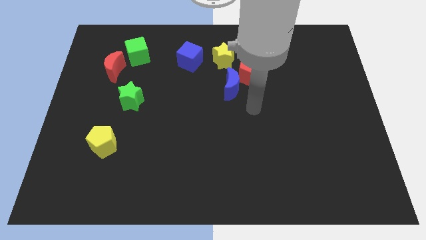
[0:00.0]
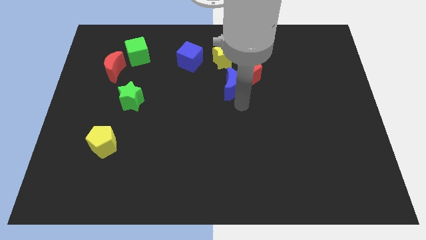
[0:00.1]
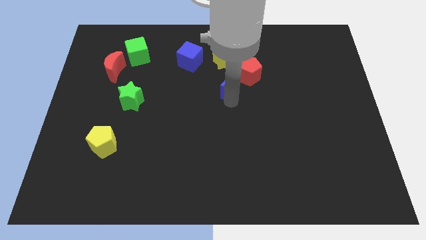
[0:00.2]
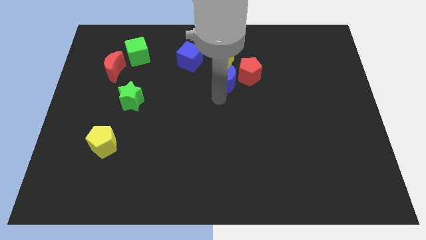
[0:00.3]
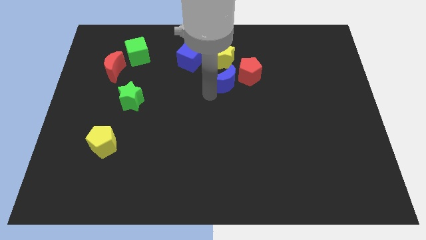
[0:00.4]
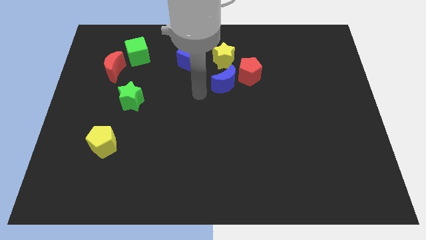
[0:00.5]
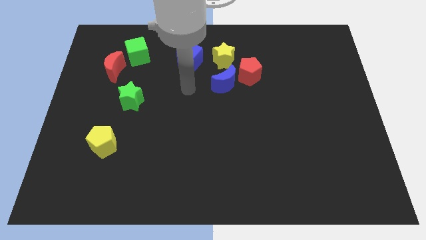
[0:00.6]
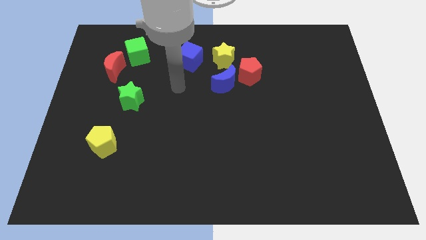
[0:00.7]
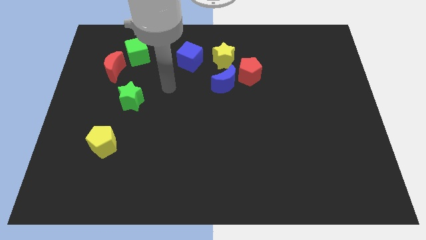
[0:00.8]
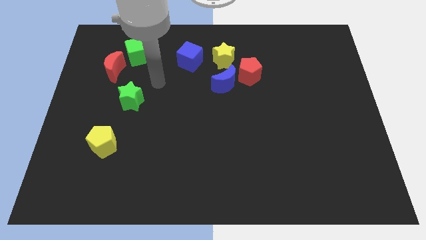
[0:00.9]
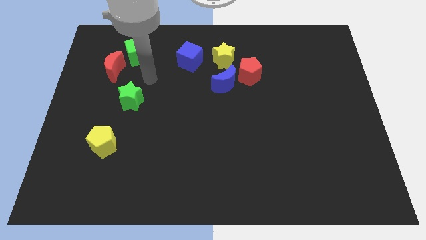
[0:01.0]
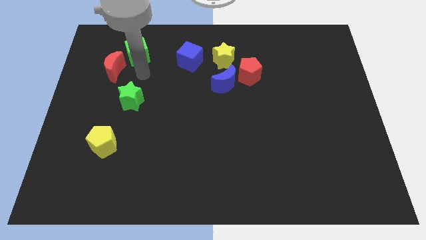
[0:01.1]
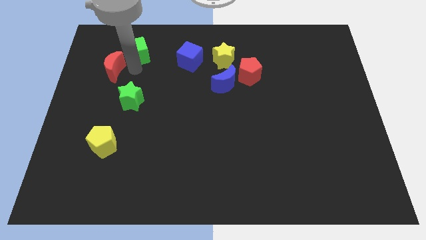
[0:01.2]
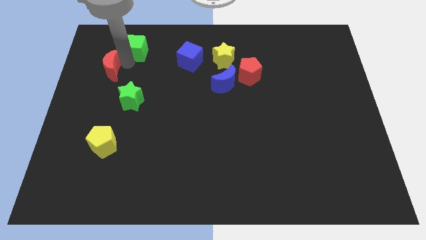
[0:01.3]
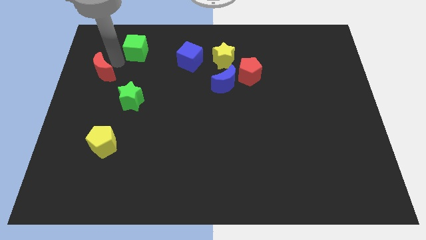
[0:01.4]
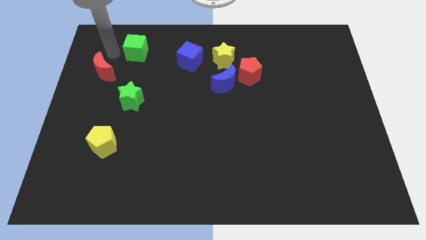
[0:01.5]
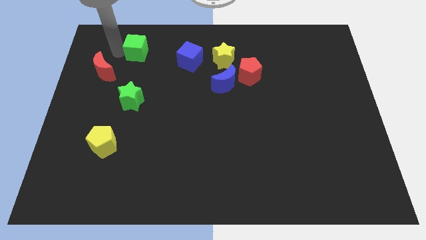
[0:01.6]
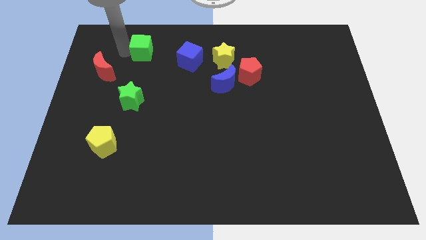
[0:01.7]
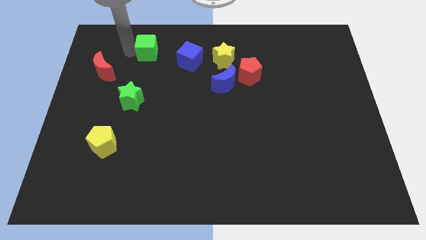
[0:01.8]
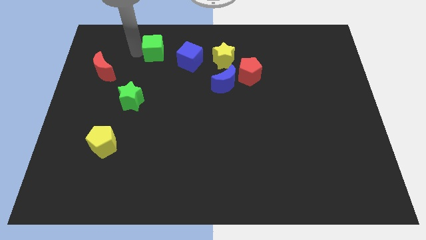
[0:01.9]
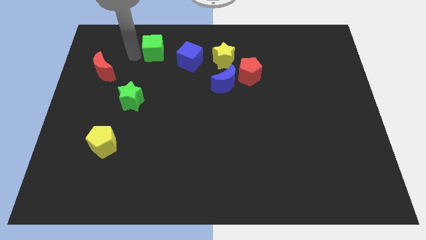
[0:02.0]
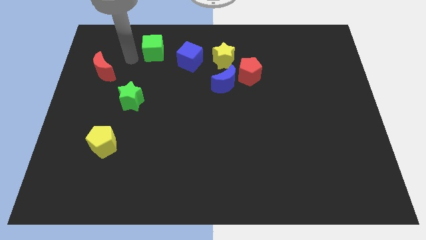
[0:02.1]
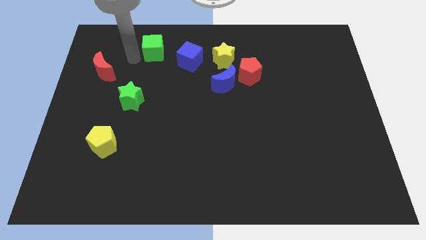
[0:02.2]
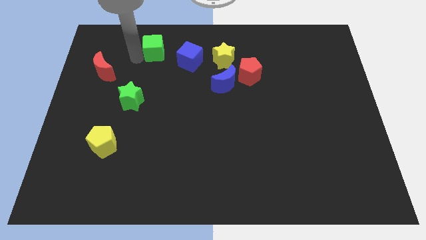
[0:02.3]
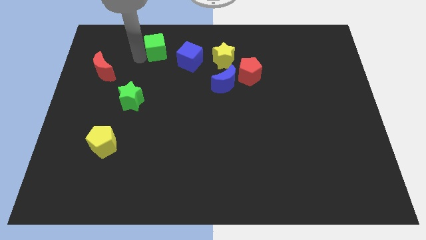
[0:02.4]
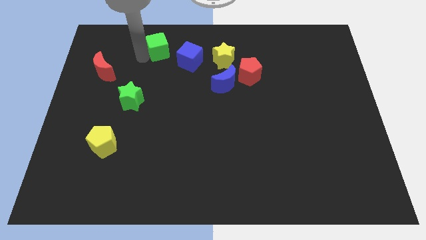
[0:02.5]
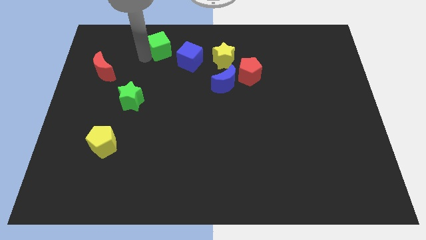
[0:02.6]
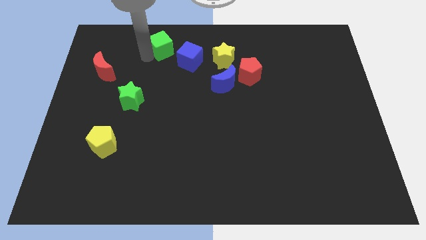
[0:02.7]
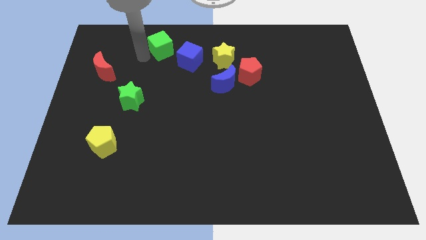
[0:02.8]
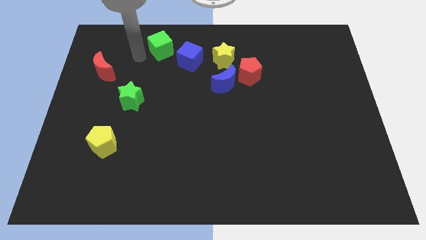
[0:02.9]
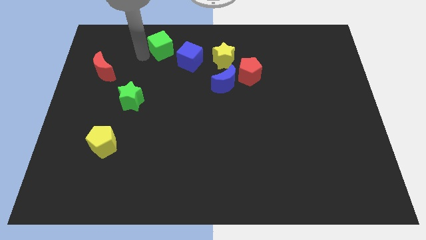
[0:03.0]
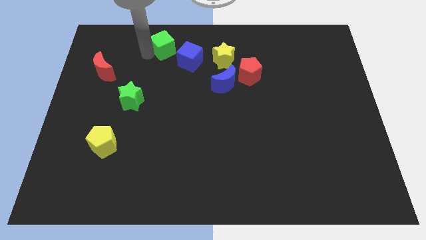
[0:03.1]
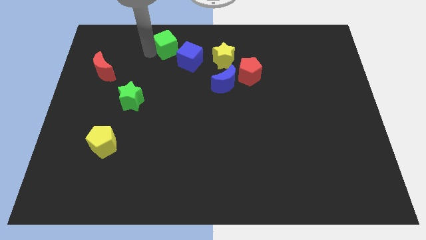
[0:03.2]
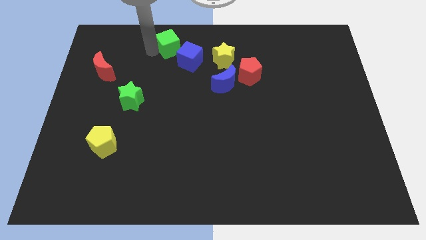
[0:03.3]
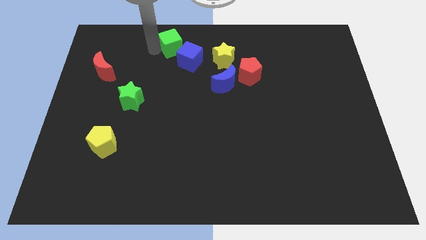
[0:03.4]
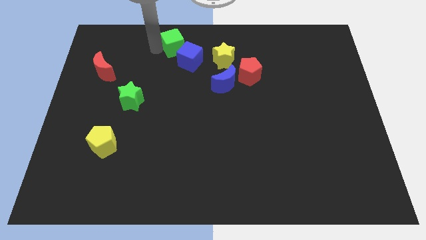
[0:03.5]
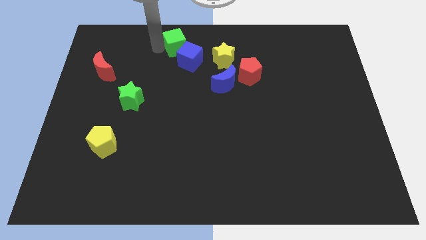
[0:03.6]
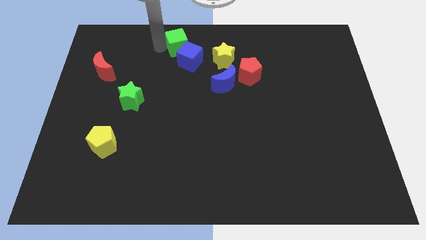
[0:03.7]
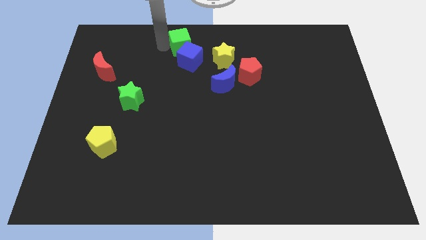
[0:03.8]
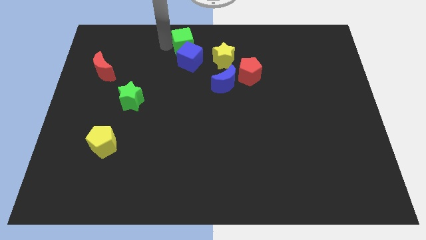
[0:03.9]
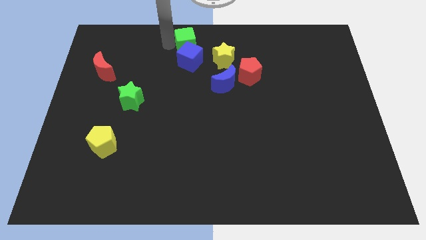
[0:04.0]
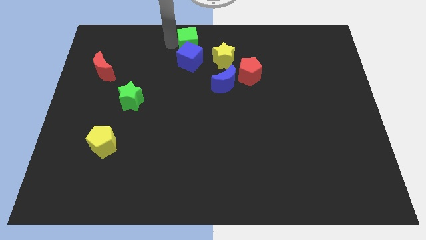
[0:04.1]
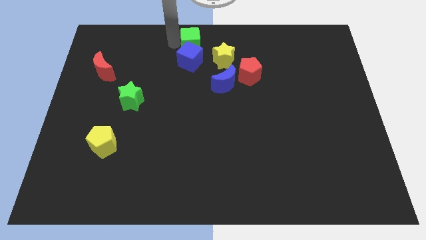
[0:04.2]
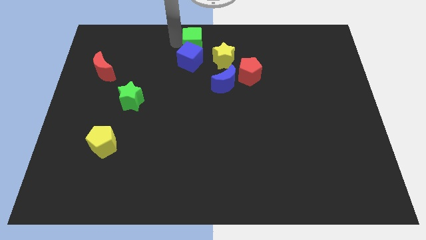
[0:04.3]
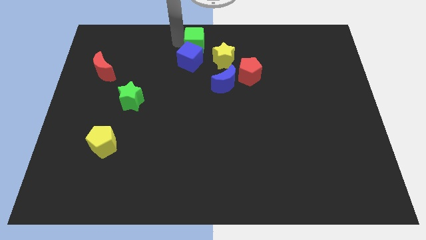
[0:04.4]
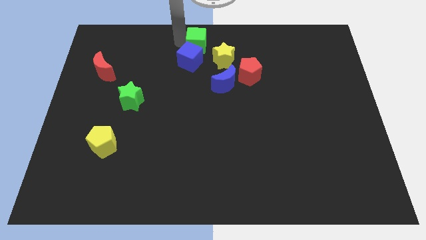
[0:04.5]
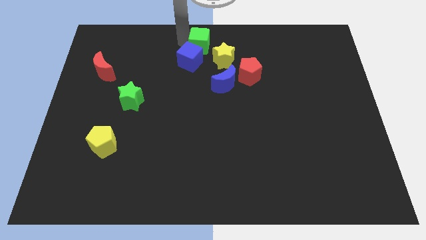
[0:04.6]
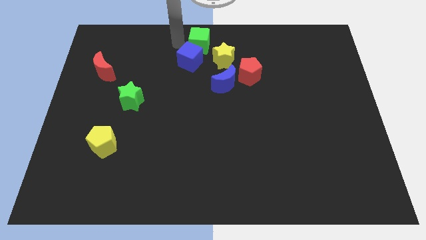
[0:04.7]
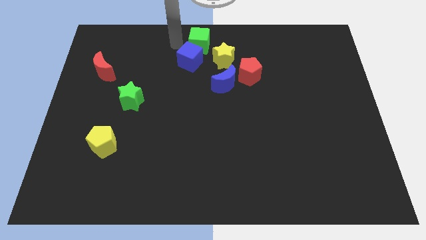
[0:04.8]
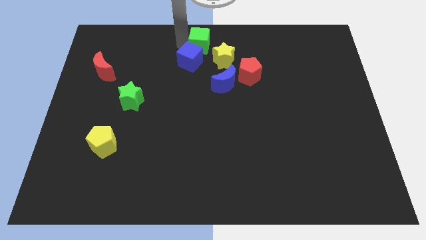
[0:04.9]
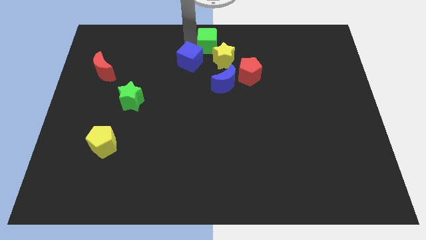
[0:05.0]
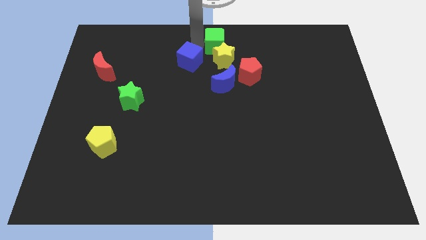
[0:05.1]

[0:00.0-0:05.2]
slide the green cube right

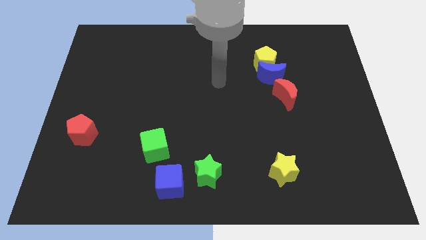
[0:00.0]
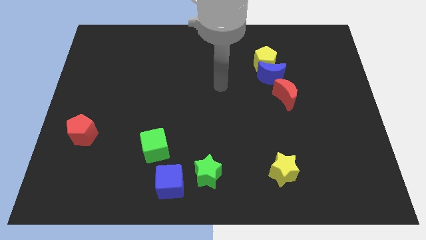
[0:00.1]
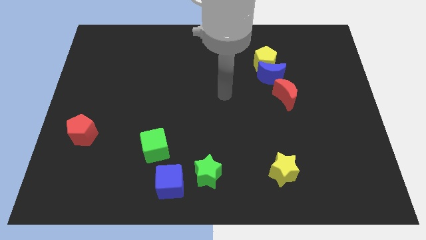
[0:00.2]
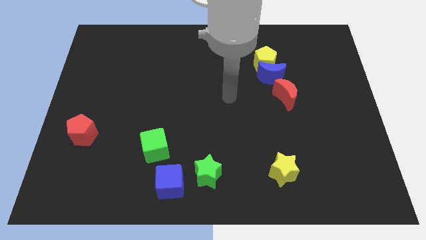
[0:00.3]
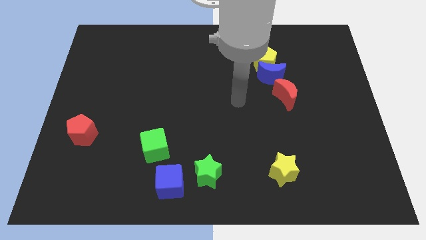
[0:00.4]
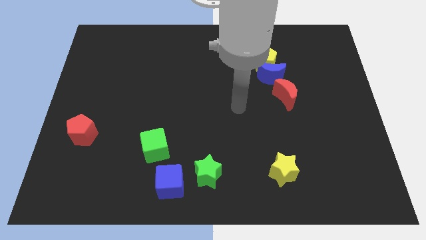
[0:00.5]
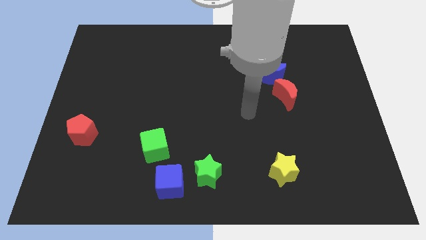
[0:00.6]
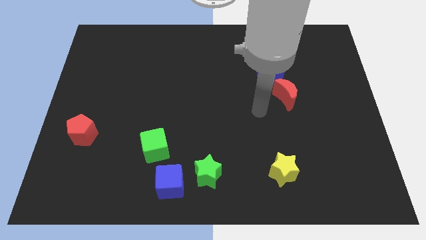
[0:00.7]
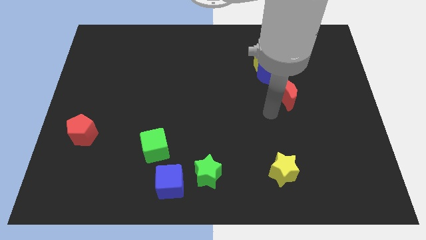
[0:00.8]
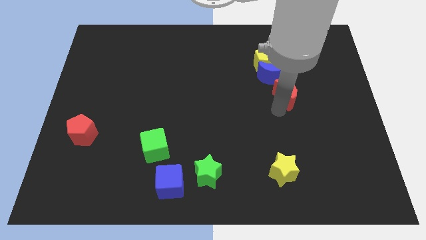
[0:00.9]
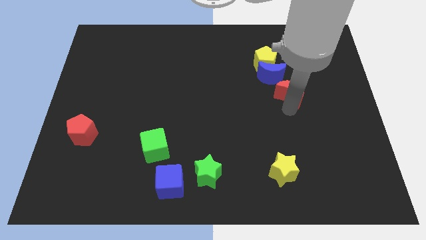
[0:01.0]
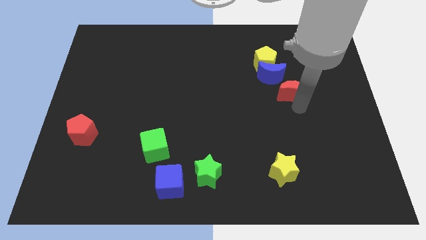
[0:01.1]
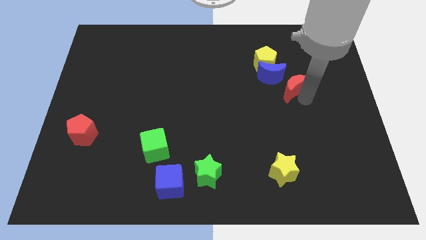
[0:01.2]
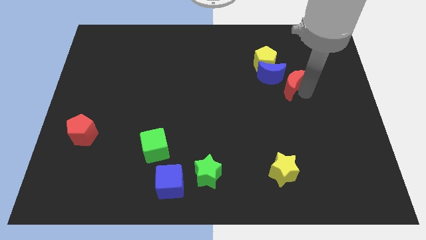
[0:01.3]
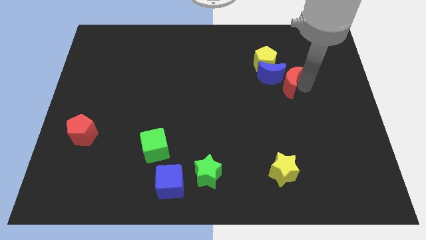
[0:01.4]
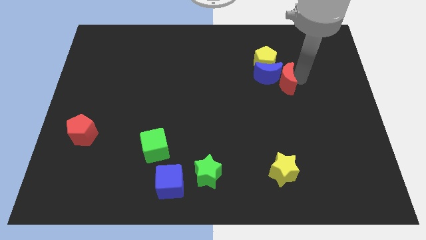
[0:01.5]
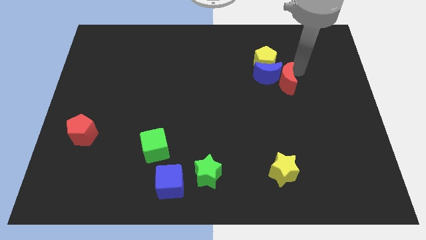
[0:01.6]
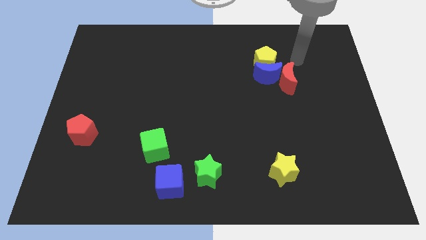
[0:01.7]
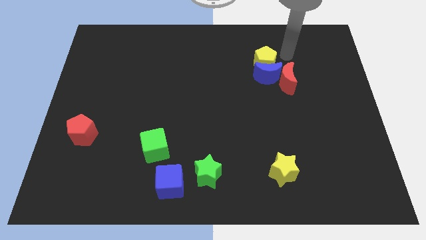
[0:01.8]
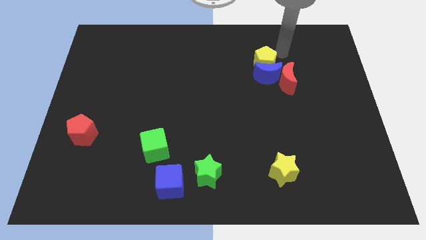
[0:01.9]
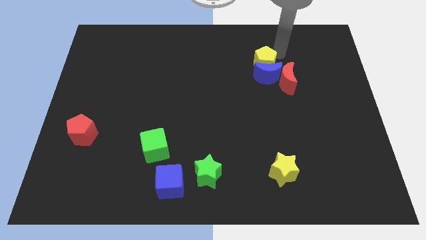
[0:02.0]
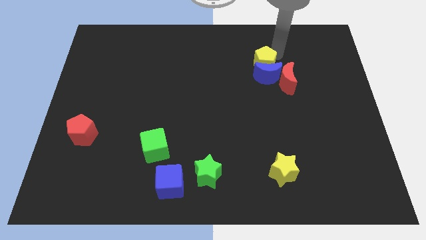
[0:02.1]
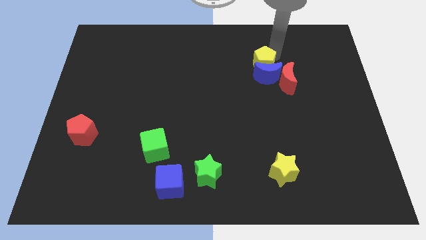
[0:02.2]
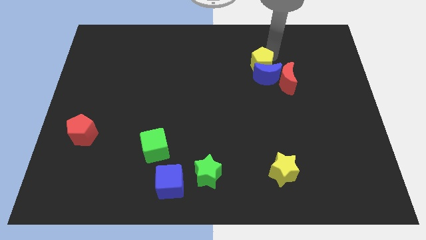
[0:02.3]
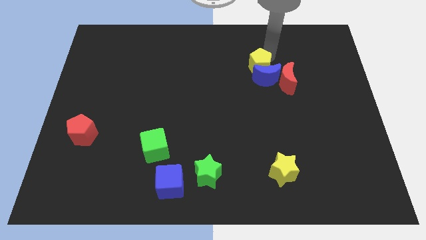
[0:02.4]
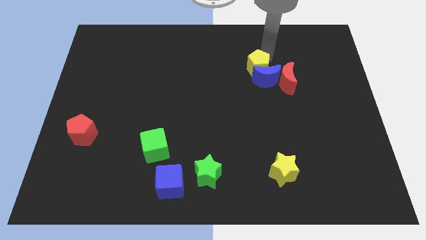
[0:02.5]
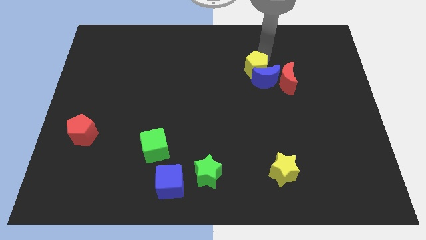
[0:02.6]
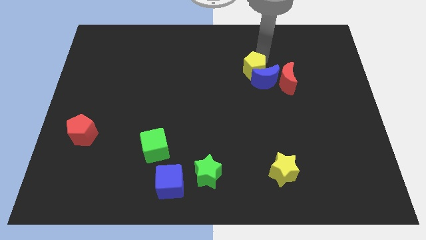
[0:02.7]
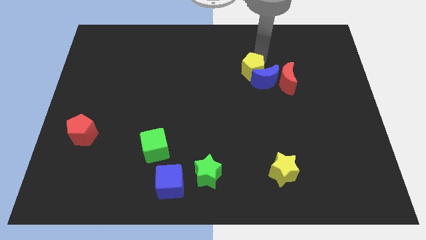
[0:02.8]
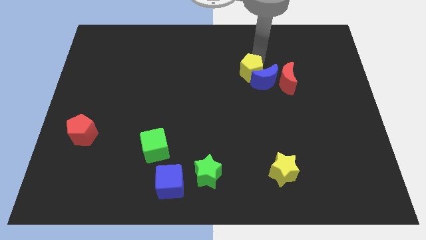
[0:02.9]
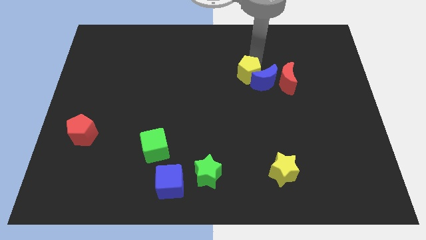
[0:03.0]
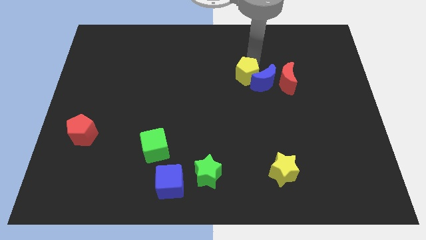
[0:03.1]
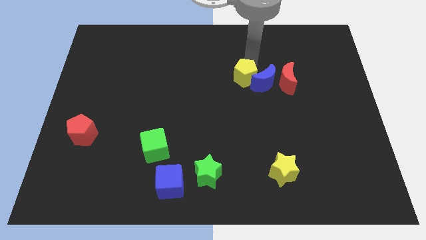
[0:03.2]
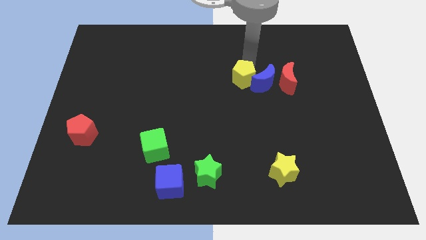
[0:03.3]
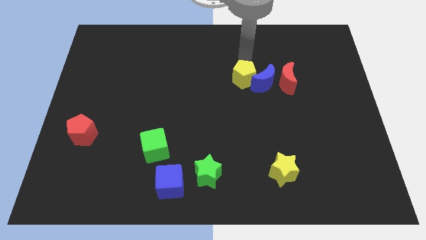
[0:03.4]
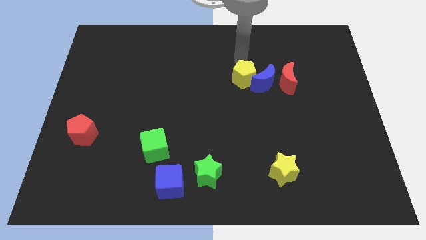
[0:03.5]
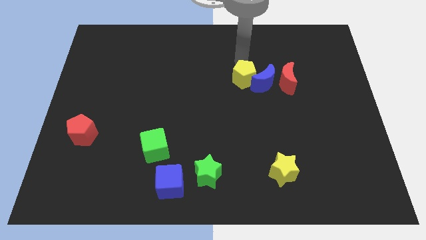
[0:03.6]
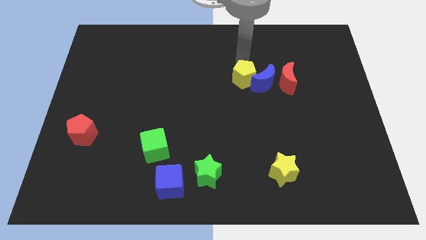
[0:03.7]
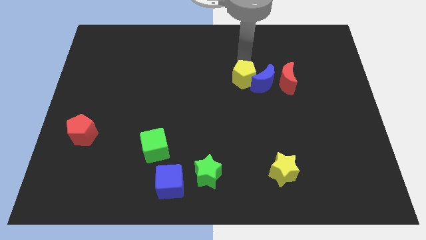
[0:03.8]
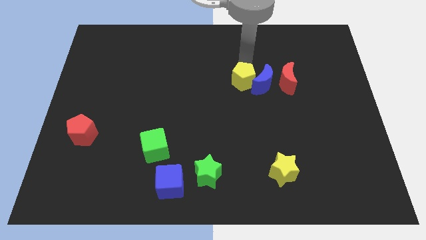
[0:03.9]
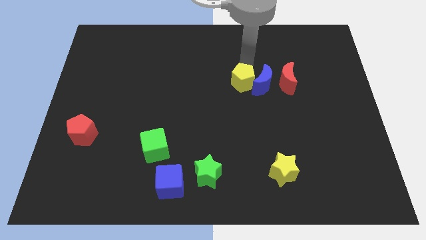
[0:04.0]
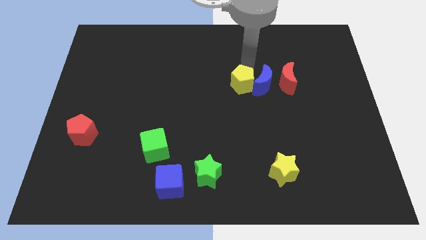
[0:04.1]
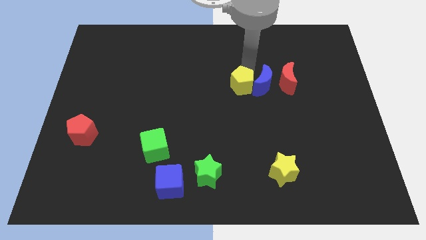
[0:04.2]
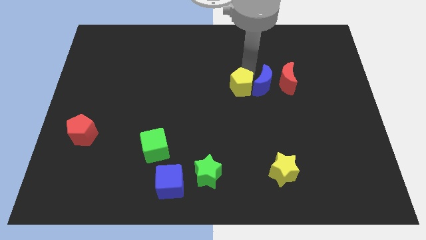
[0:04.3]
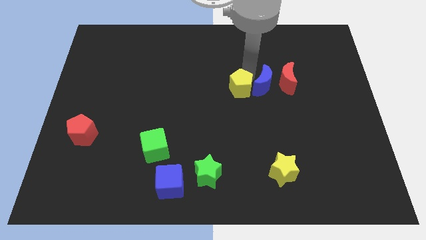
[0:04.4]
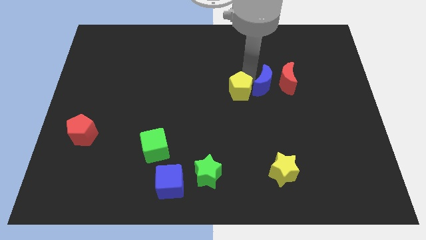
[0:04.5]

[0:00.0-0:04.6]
move the yellow pentagon a bit down
